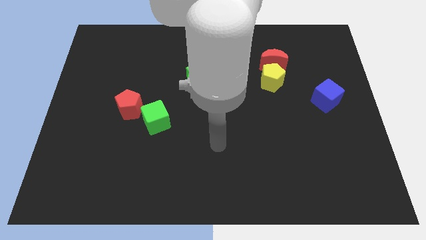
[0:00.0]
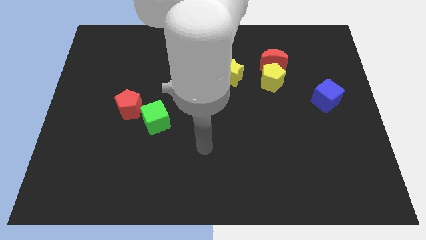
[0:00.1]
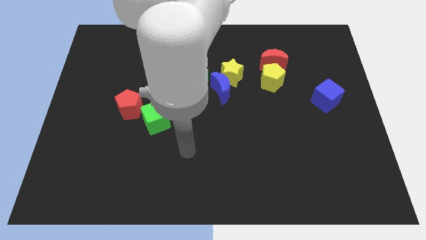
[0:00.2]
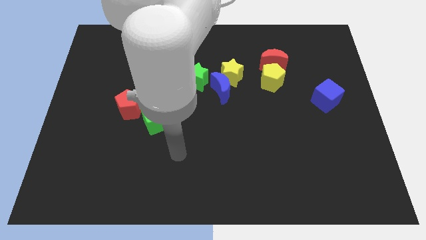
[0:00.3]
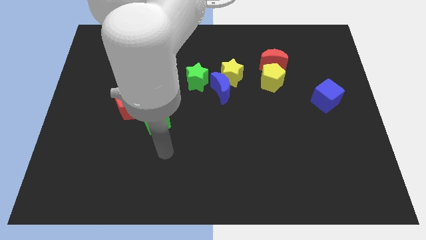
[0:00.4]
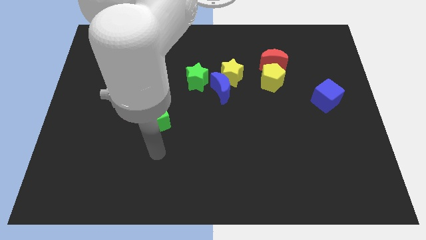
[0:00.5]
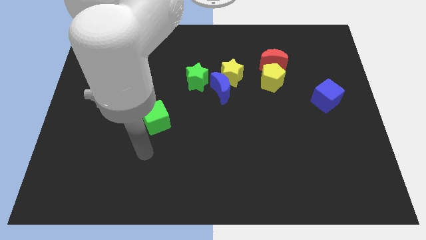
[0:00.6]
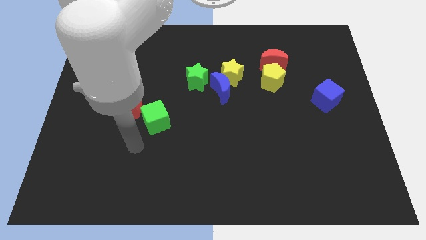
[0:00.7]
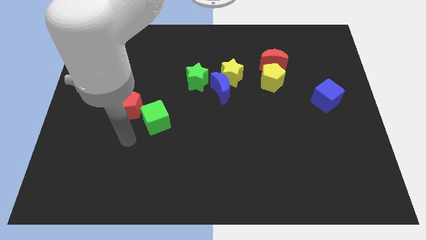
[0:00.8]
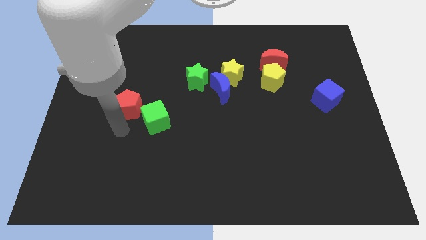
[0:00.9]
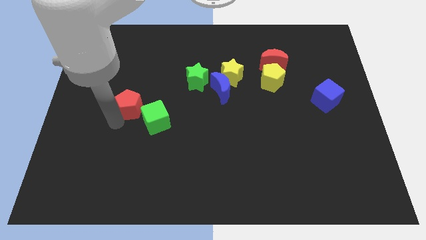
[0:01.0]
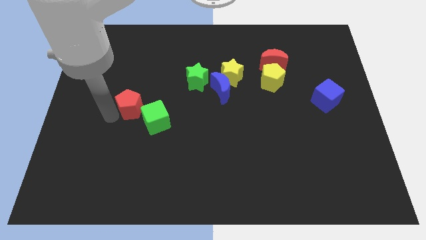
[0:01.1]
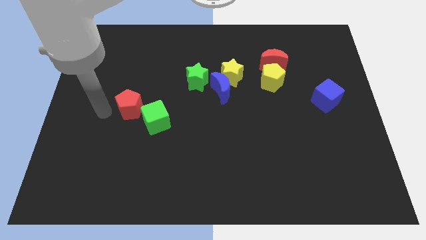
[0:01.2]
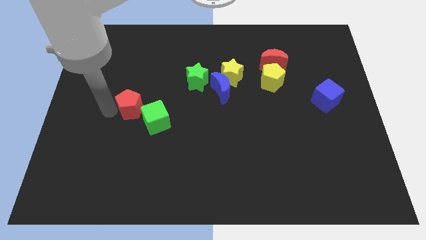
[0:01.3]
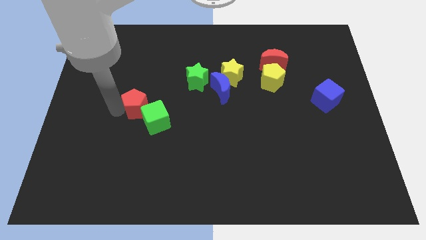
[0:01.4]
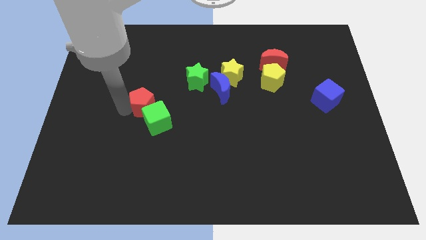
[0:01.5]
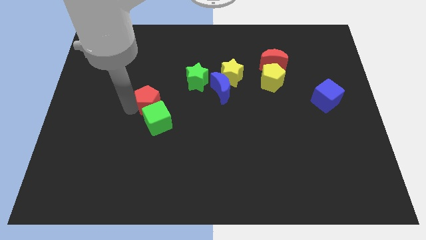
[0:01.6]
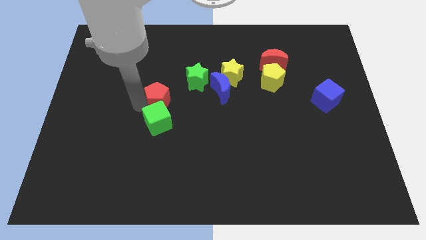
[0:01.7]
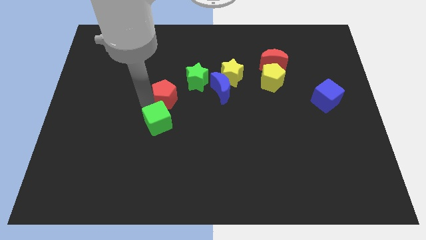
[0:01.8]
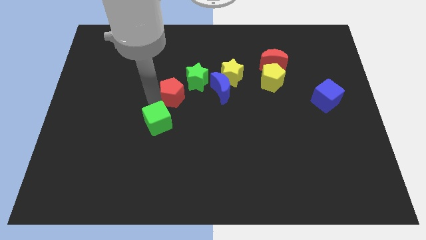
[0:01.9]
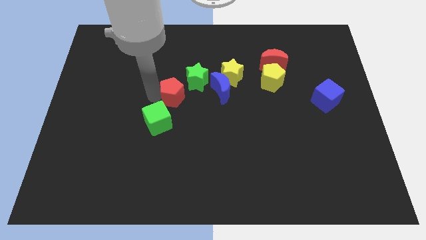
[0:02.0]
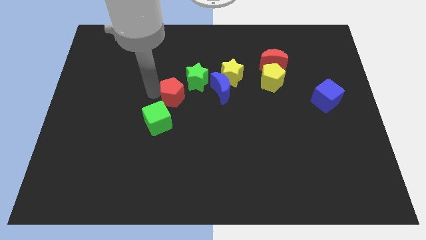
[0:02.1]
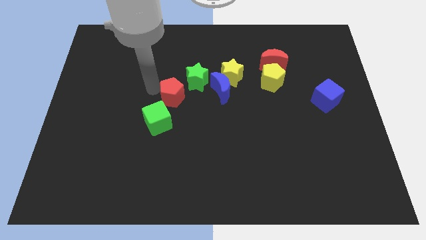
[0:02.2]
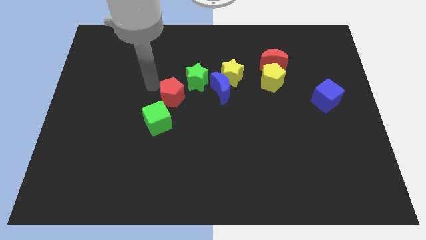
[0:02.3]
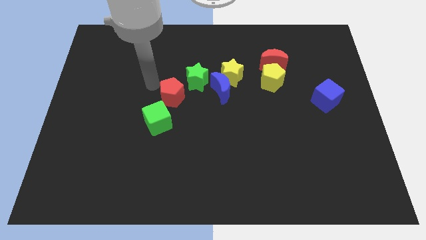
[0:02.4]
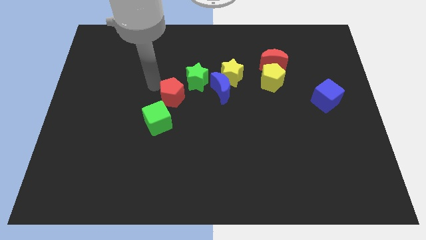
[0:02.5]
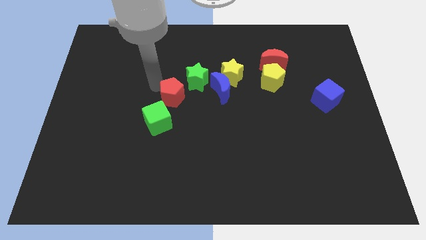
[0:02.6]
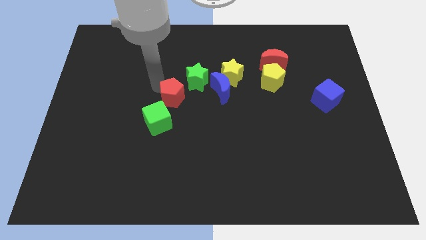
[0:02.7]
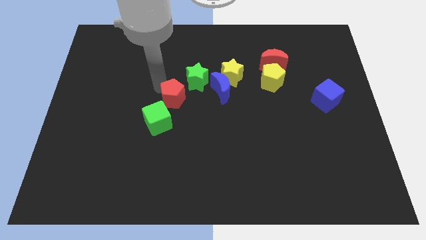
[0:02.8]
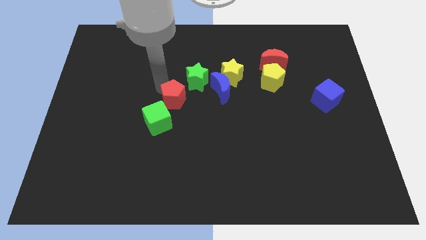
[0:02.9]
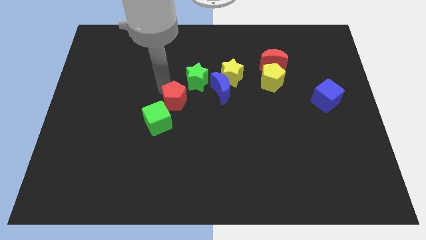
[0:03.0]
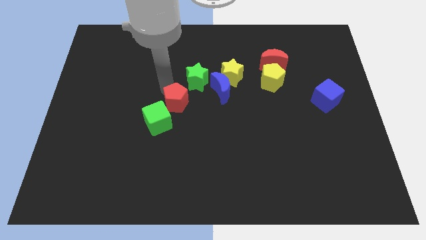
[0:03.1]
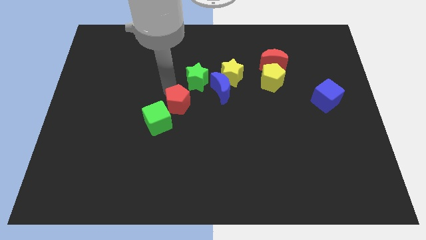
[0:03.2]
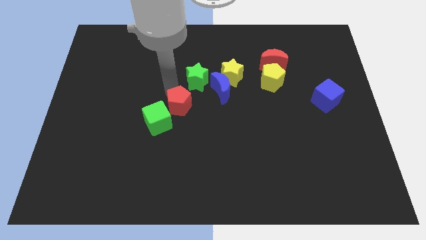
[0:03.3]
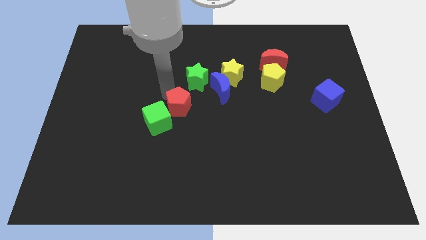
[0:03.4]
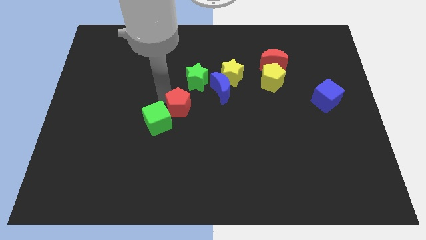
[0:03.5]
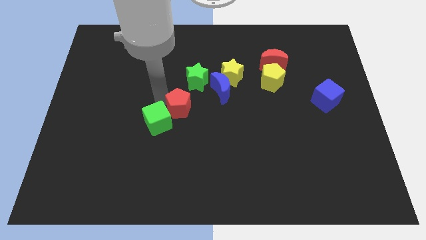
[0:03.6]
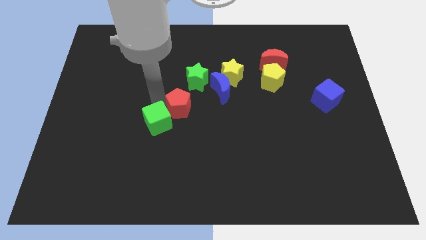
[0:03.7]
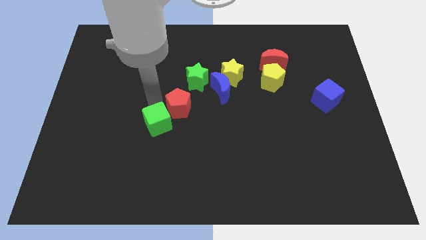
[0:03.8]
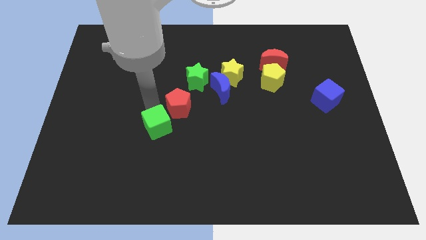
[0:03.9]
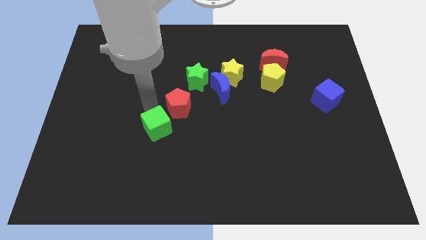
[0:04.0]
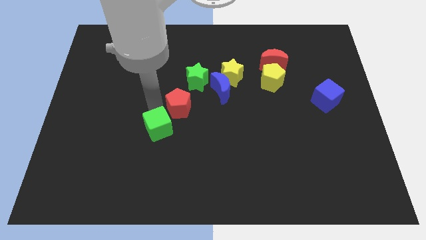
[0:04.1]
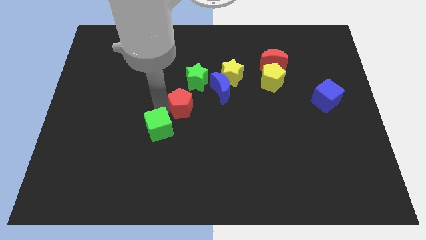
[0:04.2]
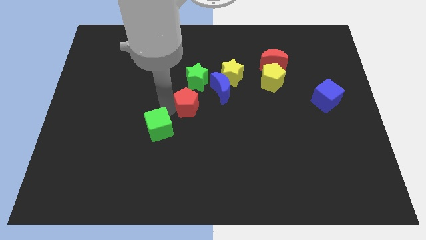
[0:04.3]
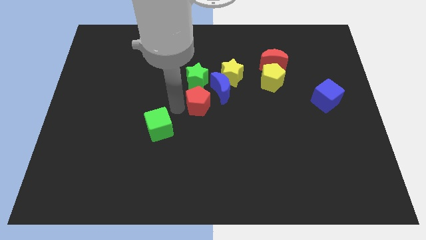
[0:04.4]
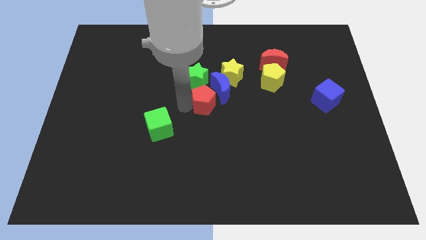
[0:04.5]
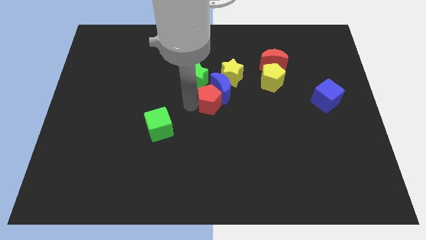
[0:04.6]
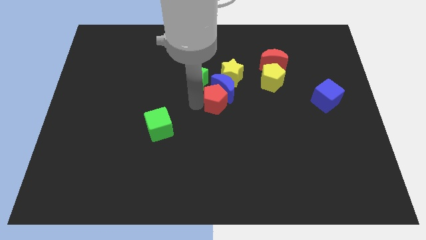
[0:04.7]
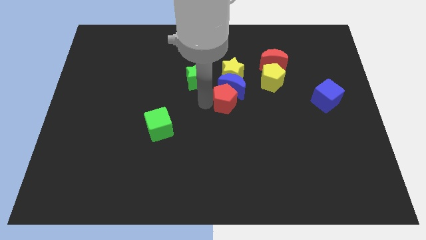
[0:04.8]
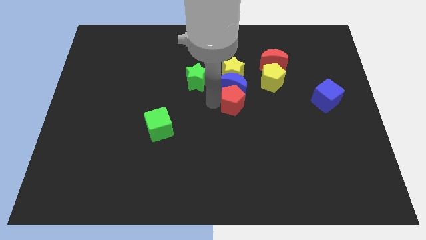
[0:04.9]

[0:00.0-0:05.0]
push the red pentagon to the bottom right of the blue moon
